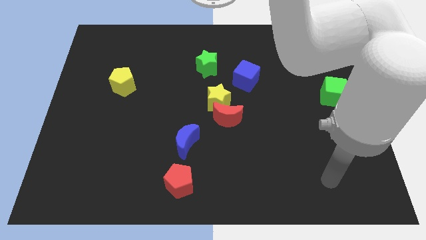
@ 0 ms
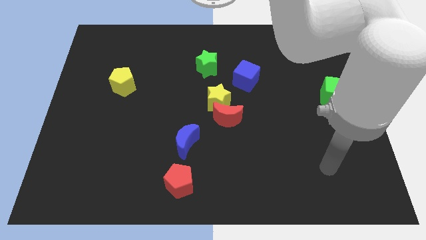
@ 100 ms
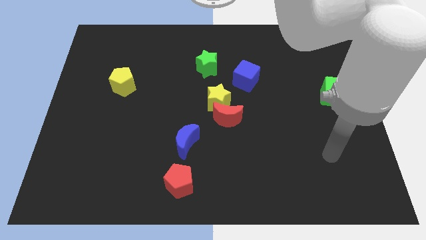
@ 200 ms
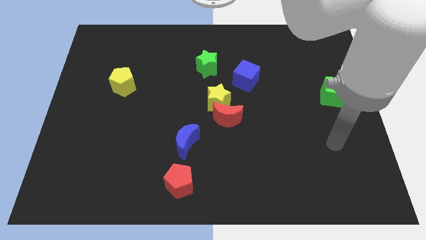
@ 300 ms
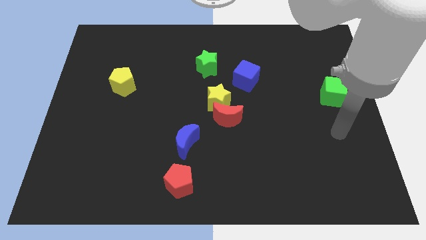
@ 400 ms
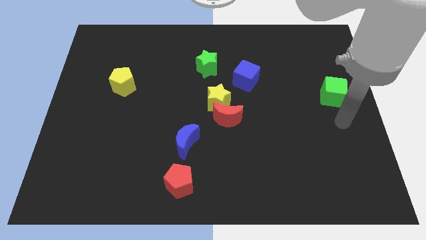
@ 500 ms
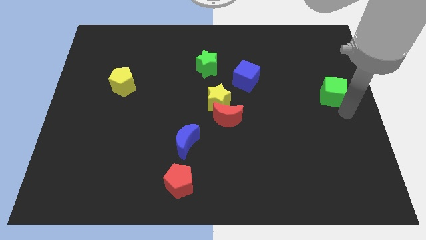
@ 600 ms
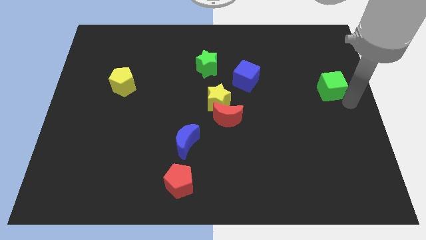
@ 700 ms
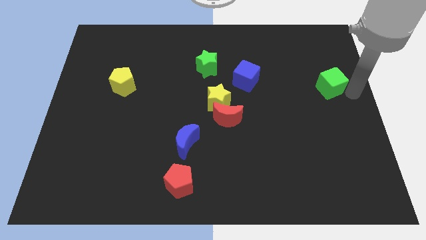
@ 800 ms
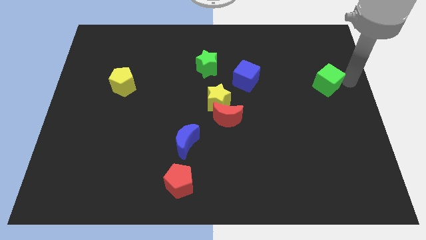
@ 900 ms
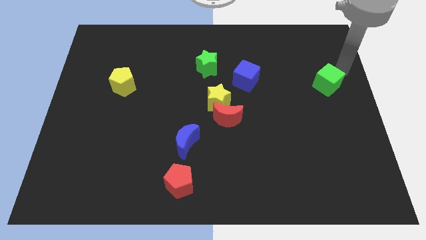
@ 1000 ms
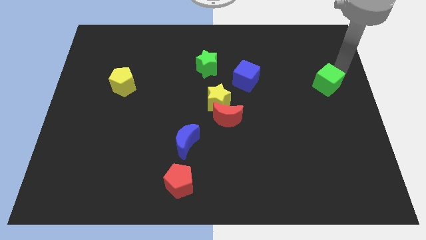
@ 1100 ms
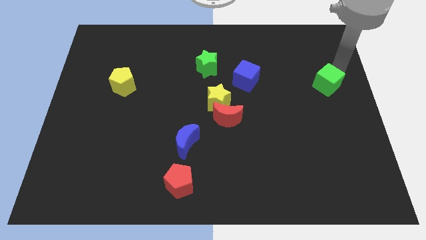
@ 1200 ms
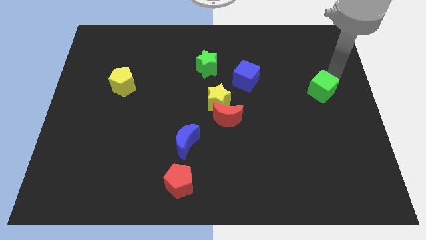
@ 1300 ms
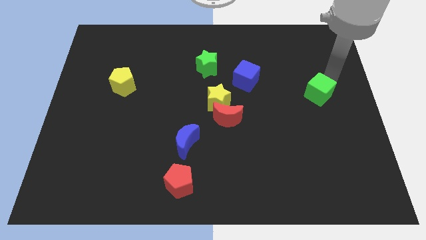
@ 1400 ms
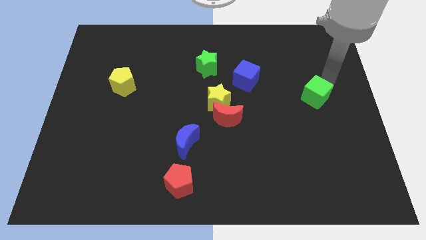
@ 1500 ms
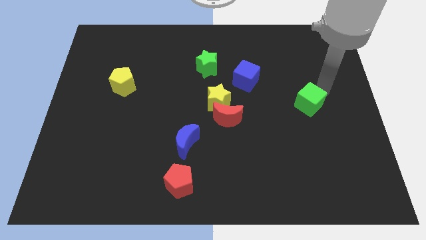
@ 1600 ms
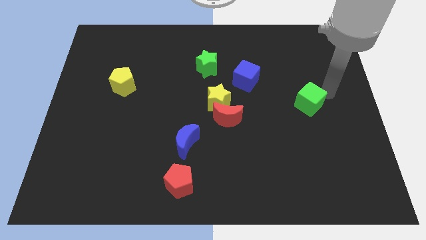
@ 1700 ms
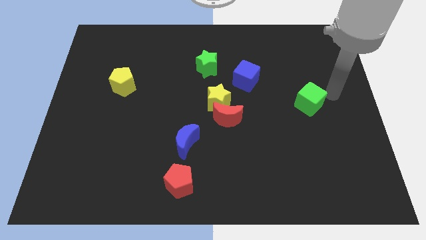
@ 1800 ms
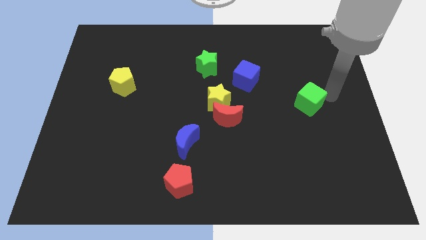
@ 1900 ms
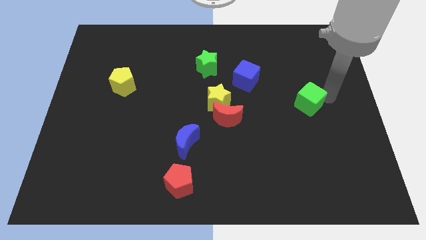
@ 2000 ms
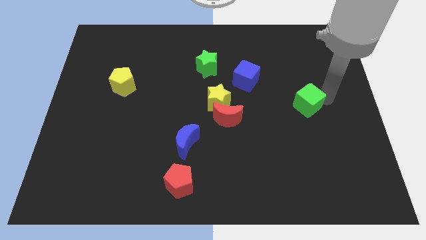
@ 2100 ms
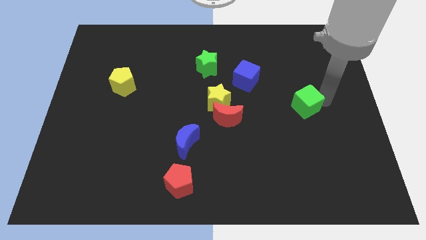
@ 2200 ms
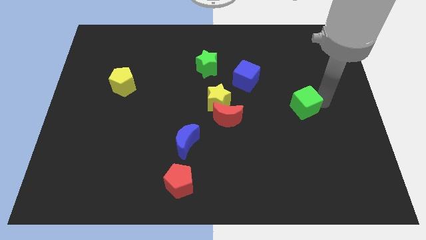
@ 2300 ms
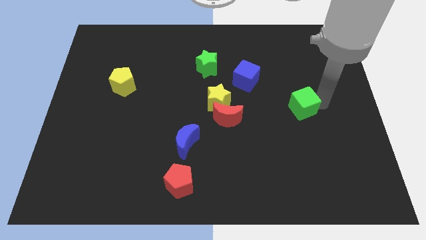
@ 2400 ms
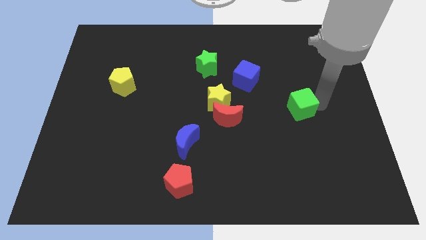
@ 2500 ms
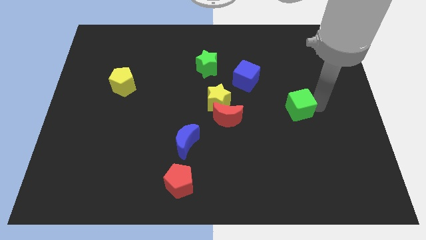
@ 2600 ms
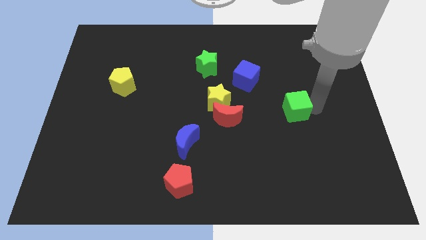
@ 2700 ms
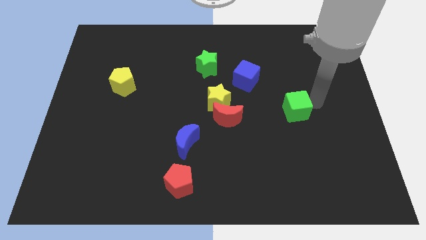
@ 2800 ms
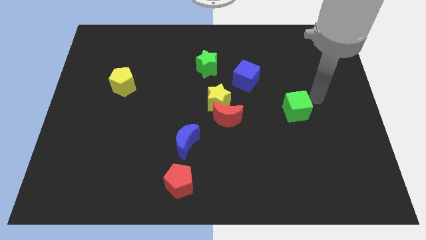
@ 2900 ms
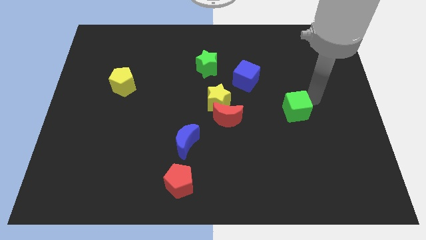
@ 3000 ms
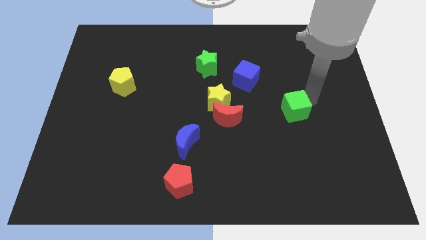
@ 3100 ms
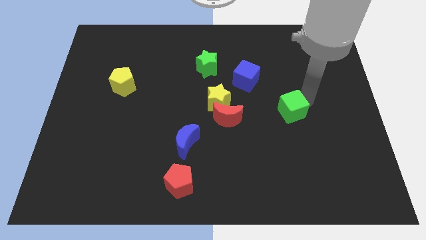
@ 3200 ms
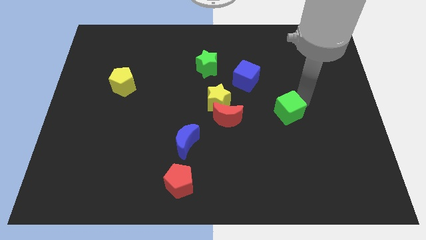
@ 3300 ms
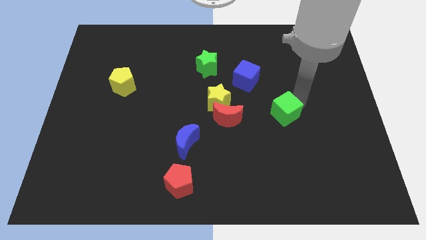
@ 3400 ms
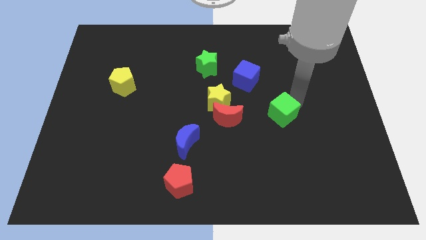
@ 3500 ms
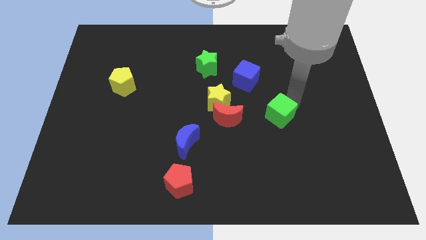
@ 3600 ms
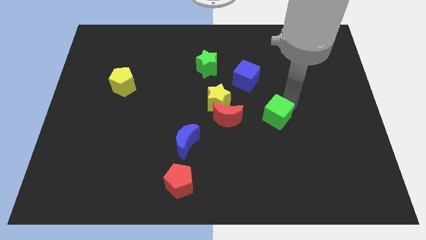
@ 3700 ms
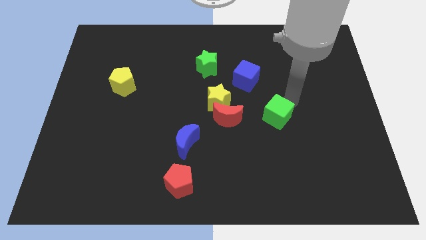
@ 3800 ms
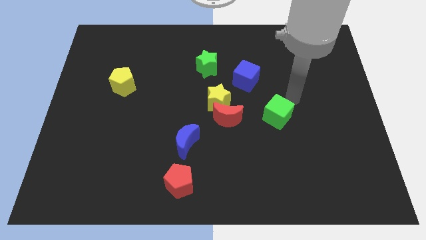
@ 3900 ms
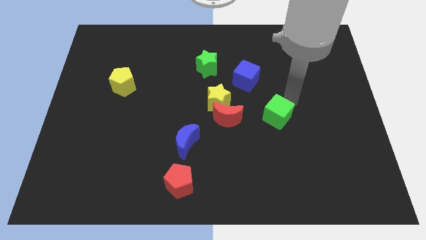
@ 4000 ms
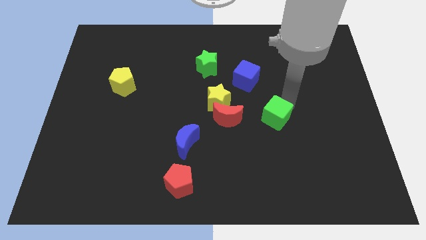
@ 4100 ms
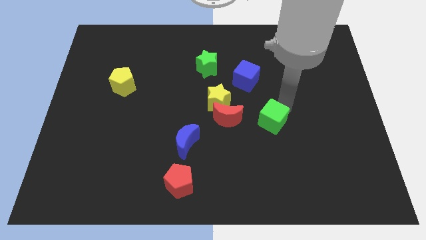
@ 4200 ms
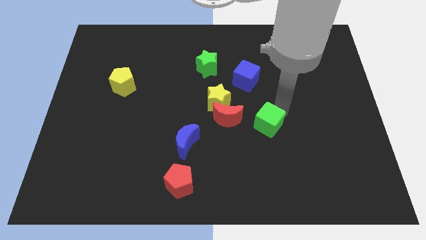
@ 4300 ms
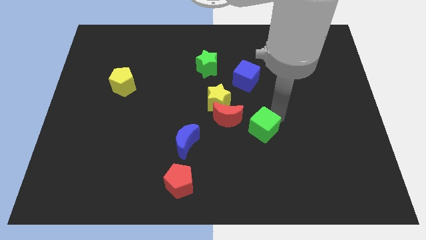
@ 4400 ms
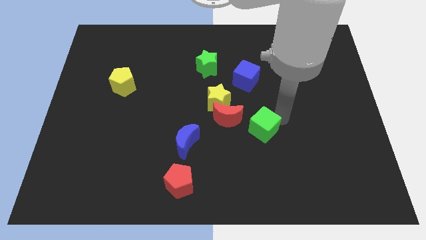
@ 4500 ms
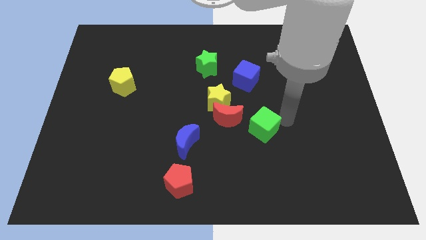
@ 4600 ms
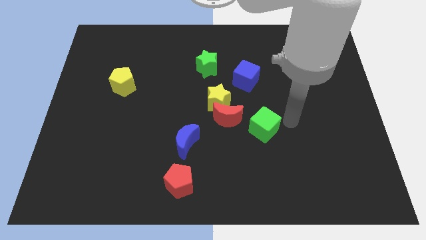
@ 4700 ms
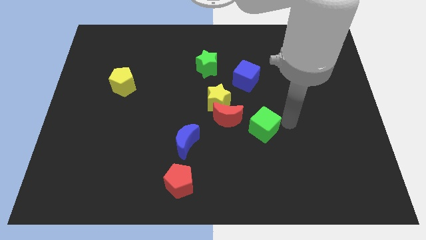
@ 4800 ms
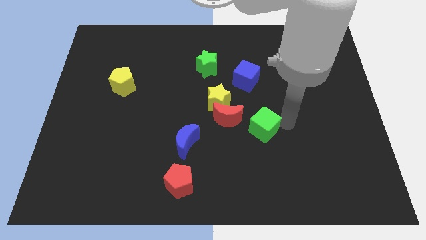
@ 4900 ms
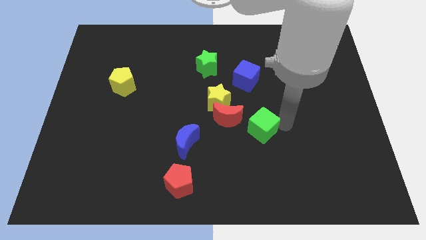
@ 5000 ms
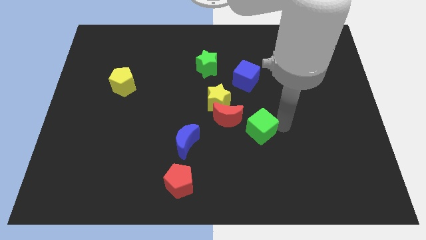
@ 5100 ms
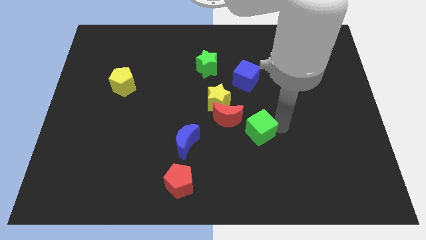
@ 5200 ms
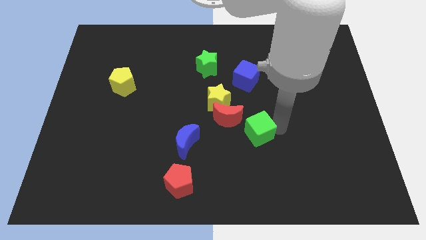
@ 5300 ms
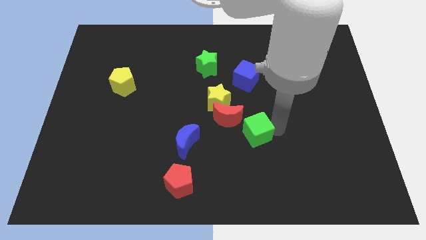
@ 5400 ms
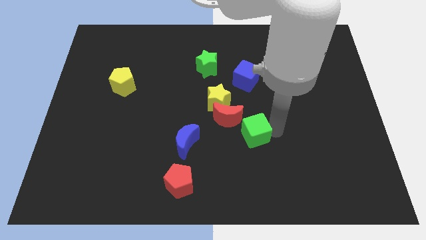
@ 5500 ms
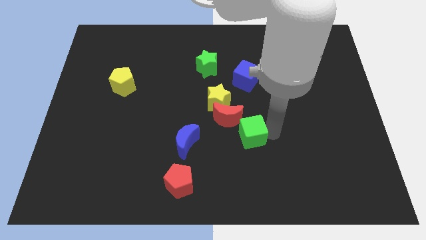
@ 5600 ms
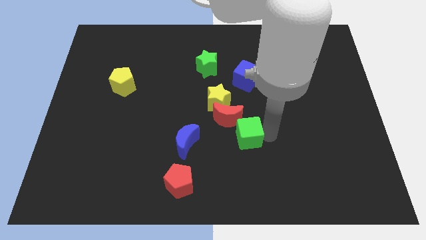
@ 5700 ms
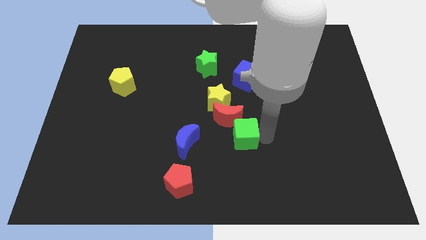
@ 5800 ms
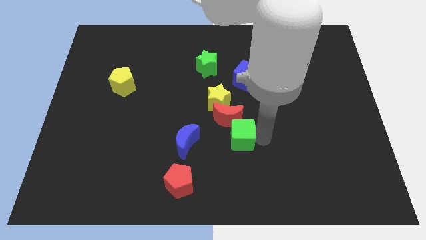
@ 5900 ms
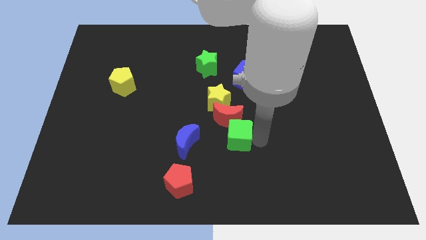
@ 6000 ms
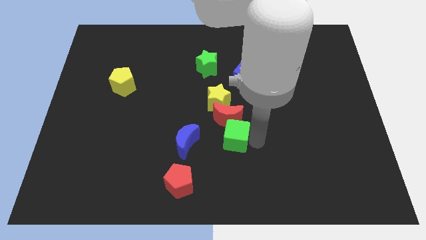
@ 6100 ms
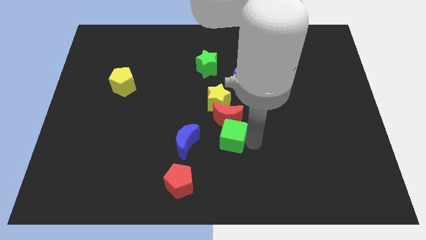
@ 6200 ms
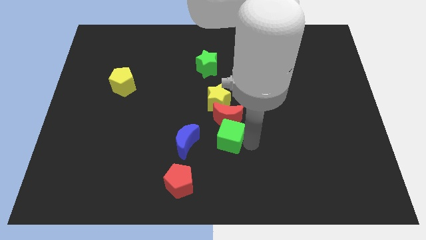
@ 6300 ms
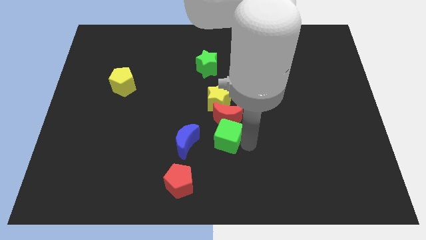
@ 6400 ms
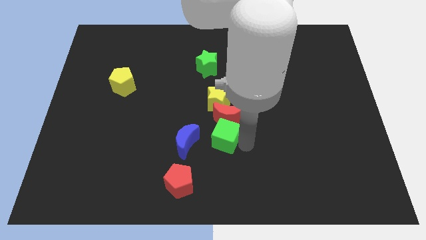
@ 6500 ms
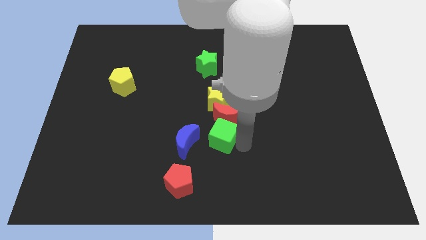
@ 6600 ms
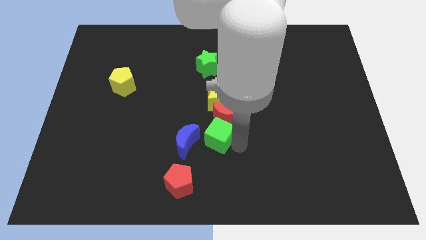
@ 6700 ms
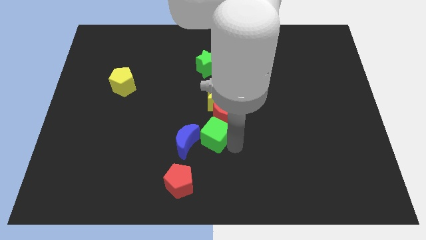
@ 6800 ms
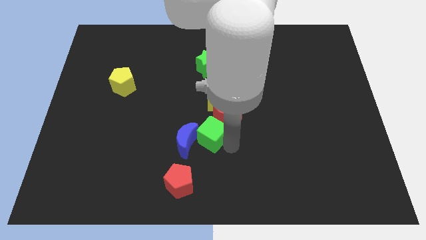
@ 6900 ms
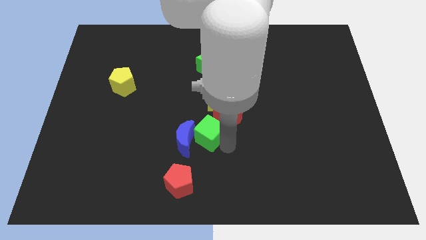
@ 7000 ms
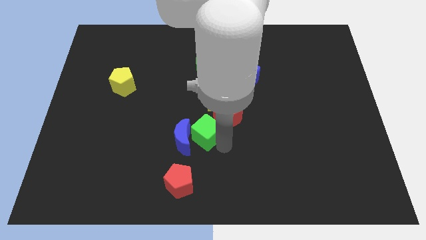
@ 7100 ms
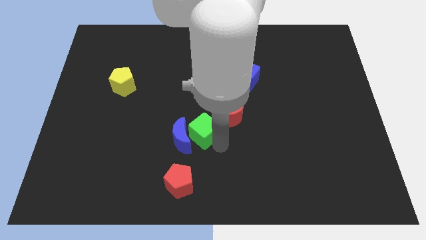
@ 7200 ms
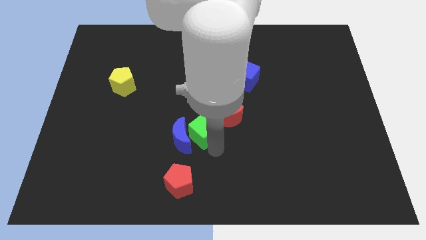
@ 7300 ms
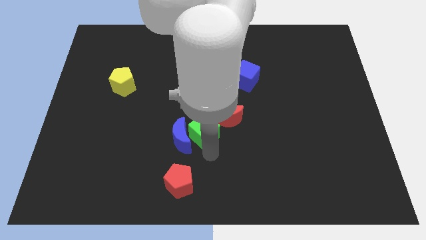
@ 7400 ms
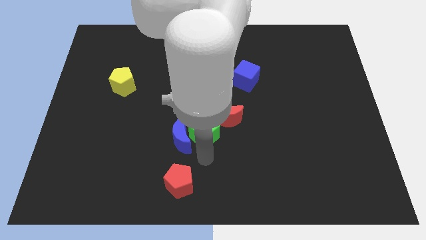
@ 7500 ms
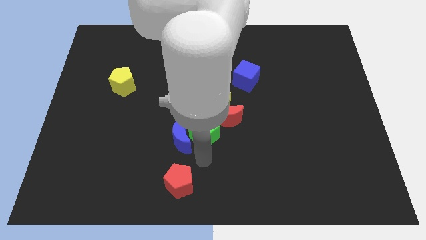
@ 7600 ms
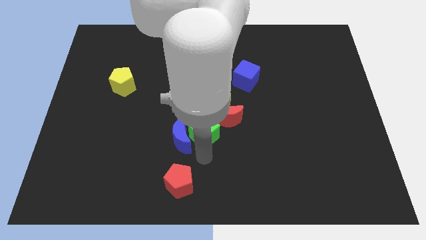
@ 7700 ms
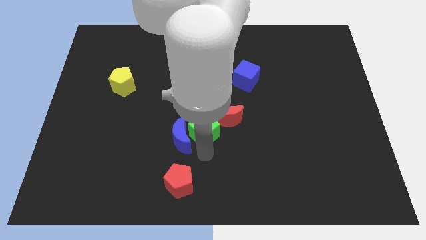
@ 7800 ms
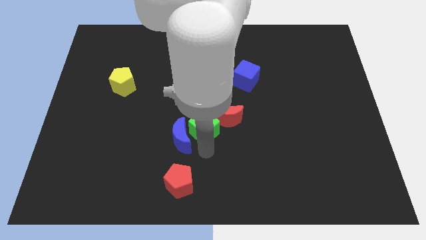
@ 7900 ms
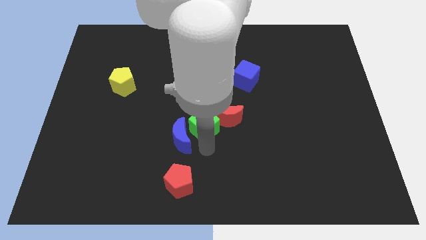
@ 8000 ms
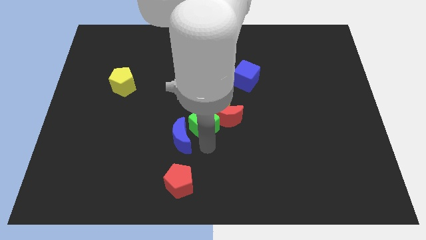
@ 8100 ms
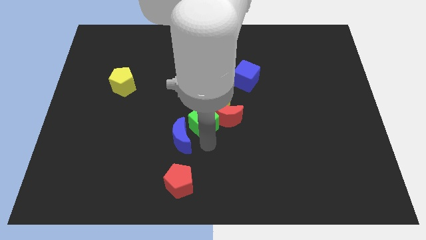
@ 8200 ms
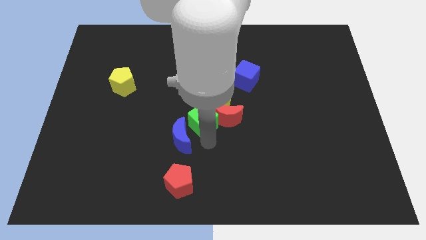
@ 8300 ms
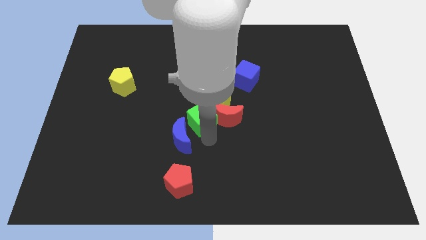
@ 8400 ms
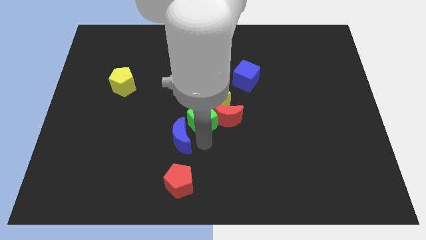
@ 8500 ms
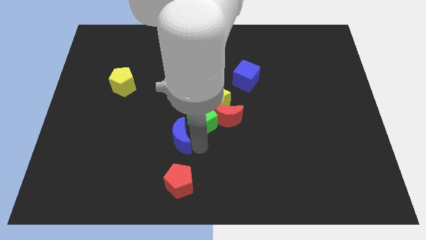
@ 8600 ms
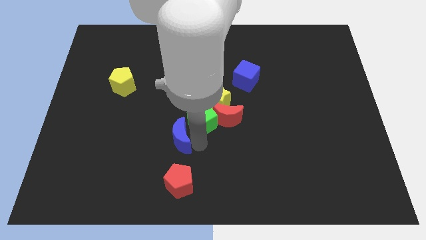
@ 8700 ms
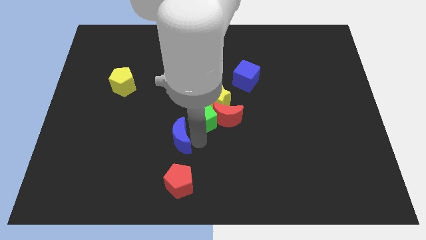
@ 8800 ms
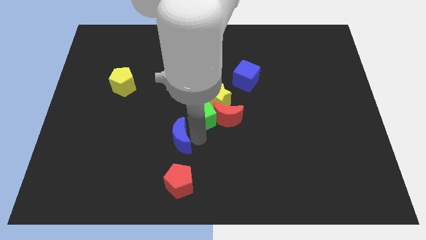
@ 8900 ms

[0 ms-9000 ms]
slide the green cube to the bottom side of the green star
